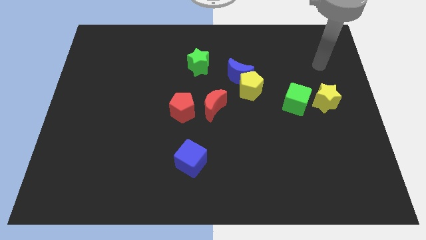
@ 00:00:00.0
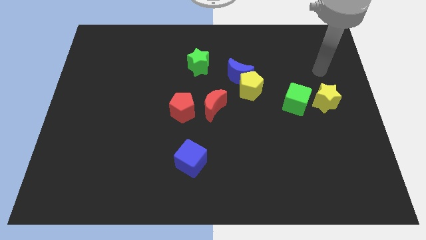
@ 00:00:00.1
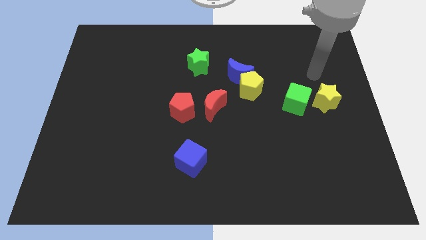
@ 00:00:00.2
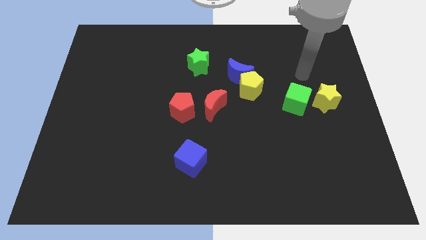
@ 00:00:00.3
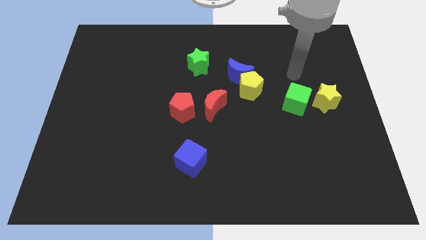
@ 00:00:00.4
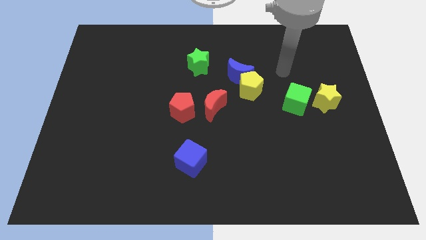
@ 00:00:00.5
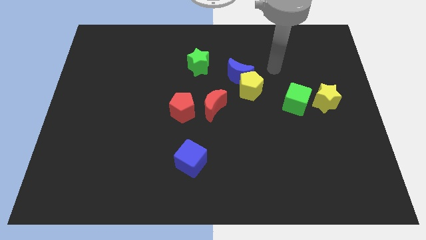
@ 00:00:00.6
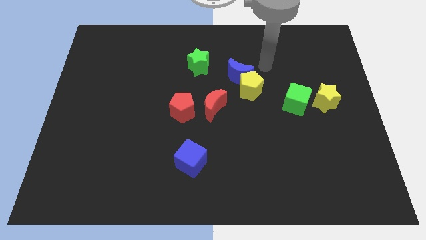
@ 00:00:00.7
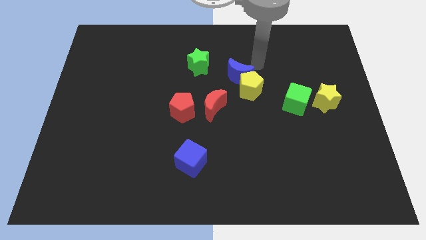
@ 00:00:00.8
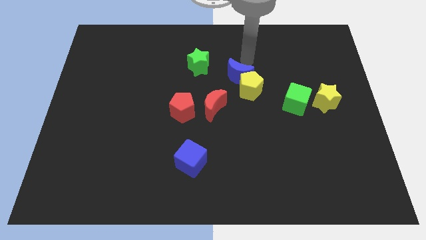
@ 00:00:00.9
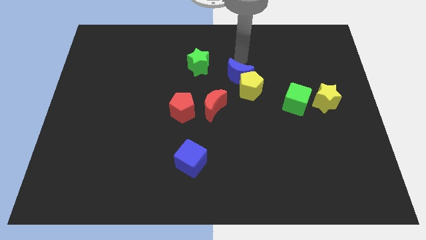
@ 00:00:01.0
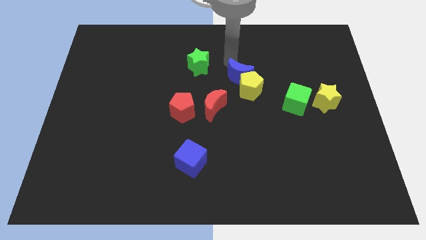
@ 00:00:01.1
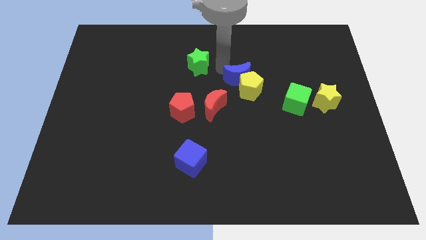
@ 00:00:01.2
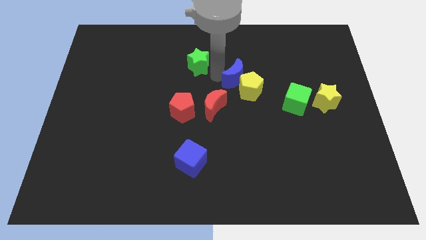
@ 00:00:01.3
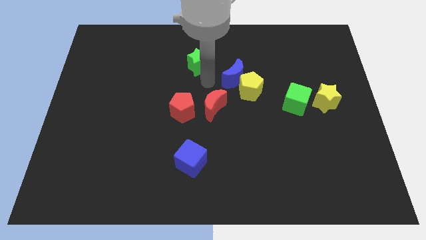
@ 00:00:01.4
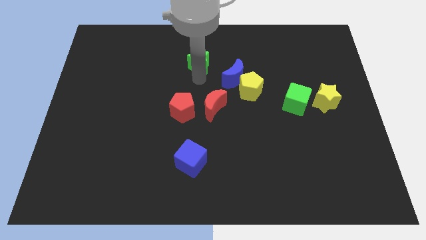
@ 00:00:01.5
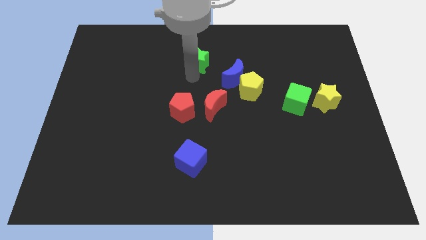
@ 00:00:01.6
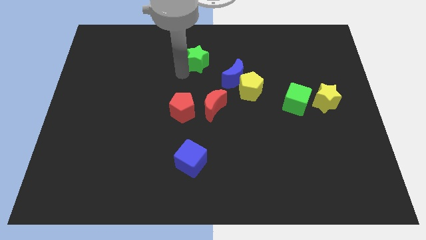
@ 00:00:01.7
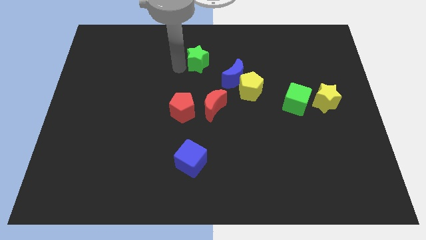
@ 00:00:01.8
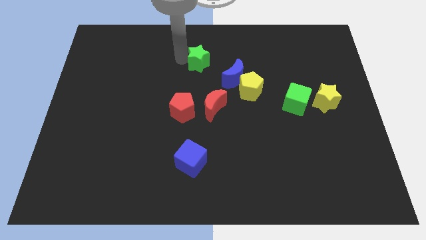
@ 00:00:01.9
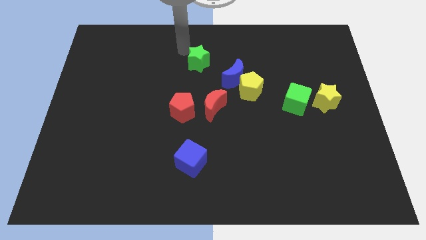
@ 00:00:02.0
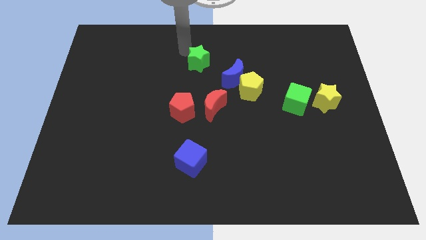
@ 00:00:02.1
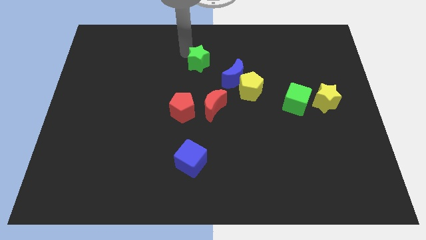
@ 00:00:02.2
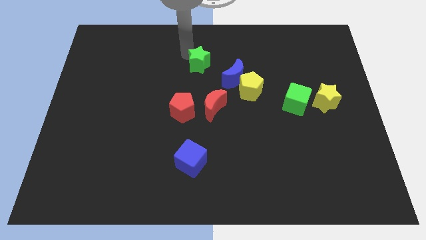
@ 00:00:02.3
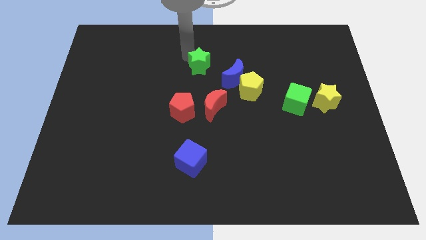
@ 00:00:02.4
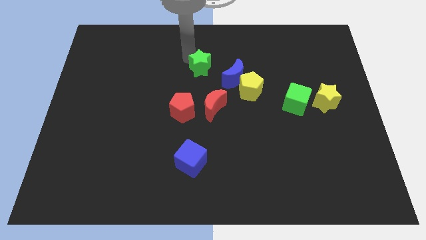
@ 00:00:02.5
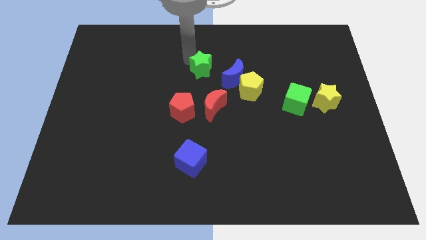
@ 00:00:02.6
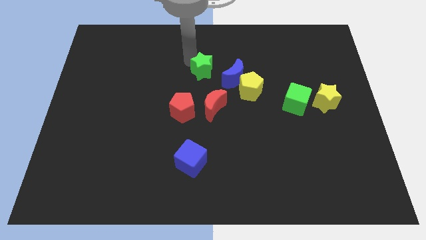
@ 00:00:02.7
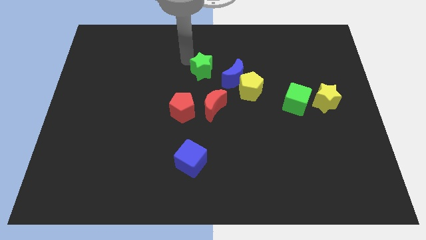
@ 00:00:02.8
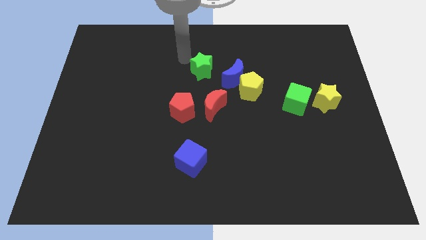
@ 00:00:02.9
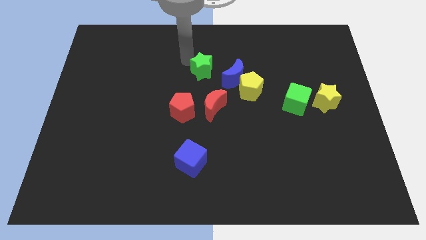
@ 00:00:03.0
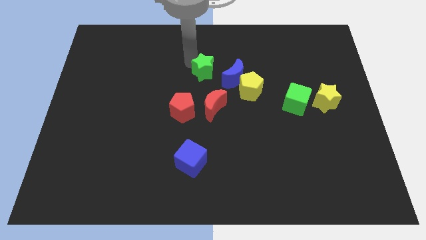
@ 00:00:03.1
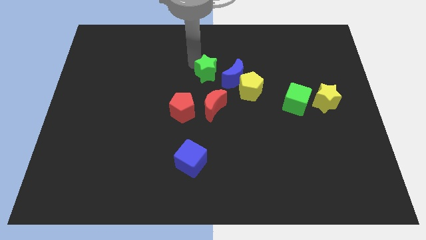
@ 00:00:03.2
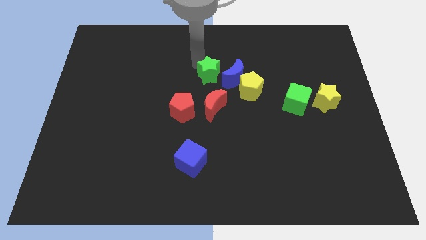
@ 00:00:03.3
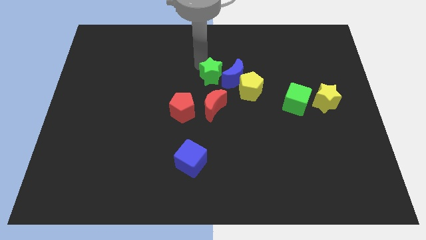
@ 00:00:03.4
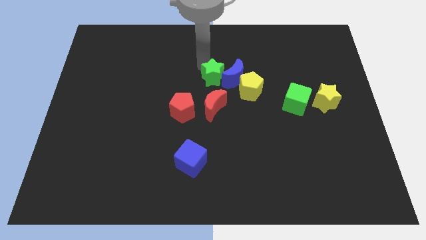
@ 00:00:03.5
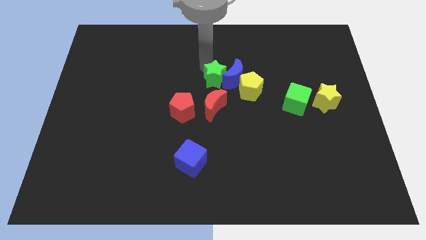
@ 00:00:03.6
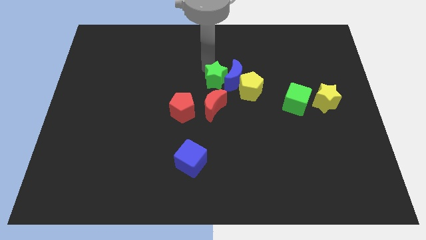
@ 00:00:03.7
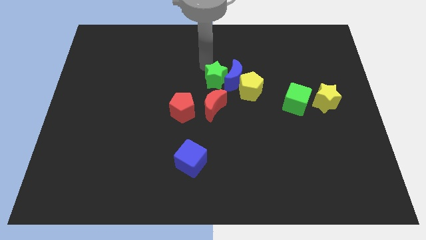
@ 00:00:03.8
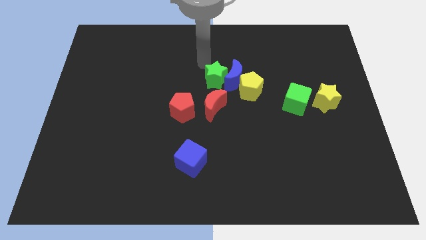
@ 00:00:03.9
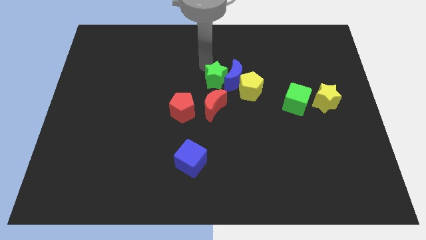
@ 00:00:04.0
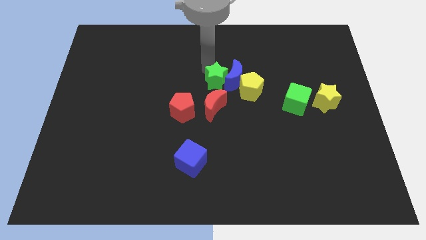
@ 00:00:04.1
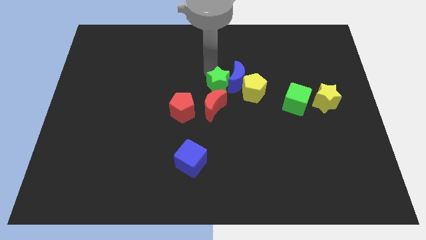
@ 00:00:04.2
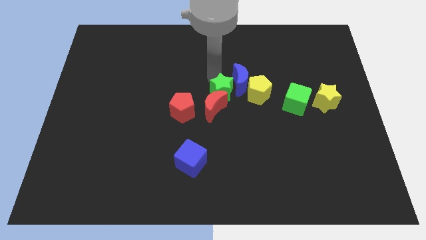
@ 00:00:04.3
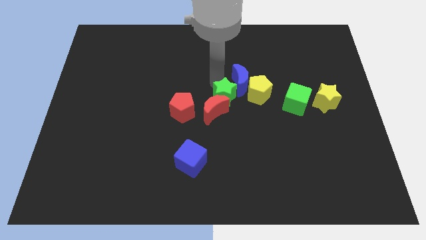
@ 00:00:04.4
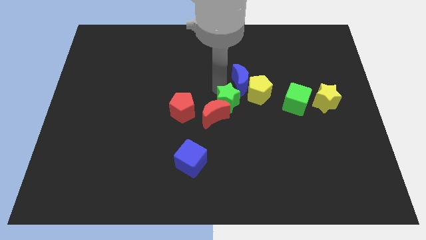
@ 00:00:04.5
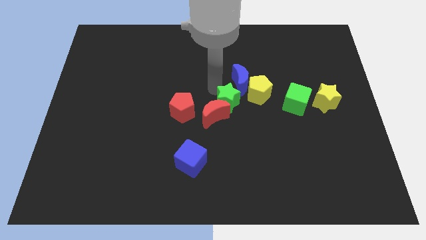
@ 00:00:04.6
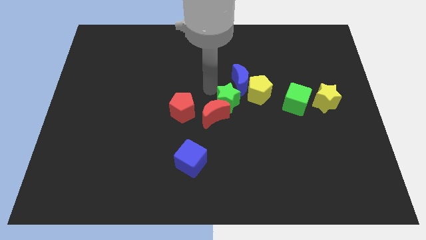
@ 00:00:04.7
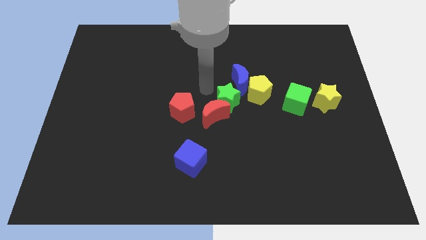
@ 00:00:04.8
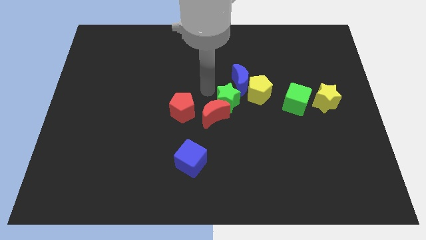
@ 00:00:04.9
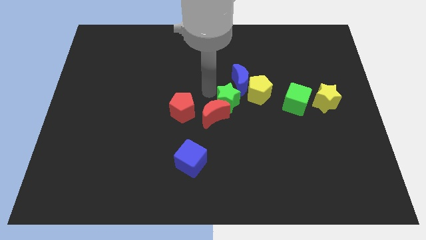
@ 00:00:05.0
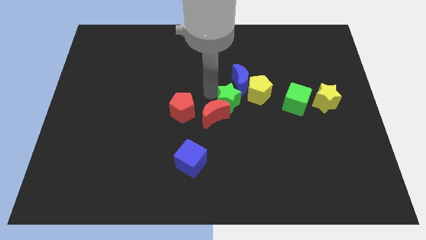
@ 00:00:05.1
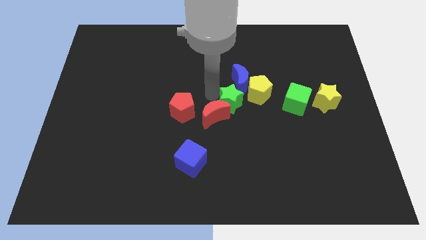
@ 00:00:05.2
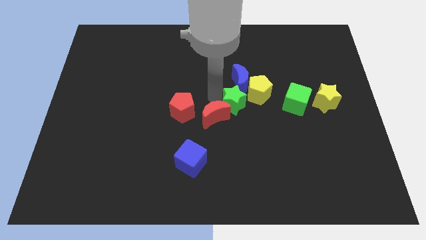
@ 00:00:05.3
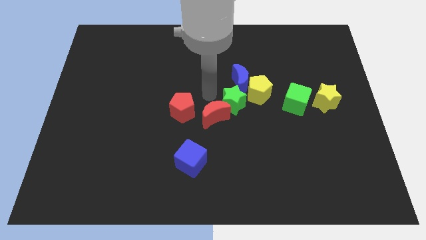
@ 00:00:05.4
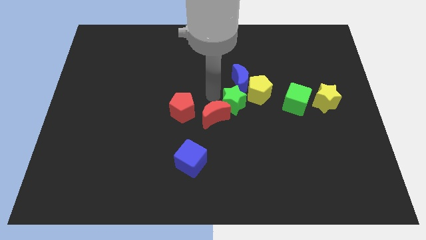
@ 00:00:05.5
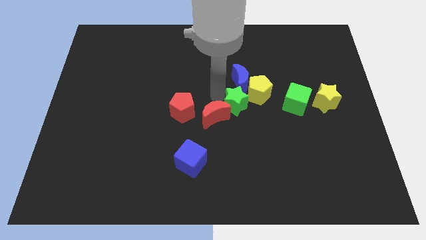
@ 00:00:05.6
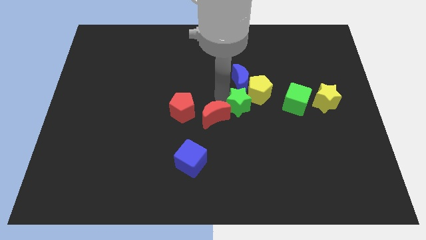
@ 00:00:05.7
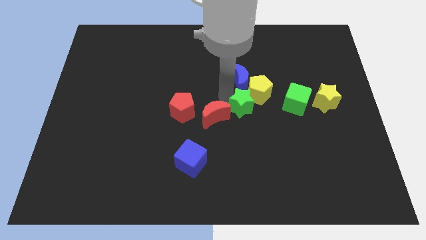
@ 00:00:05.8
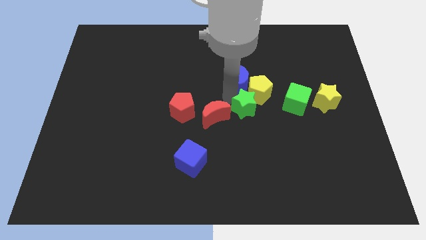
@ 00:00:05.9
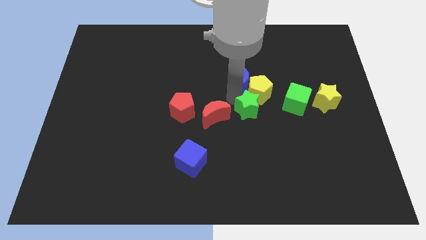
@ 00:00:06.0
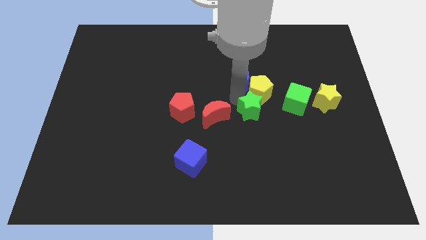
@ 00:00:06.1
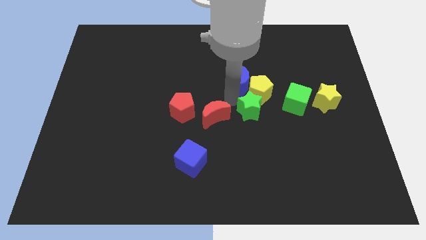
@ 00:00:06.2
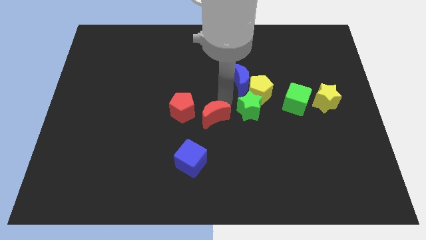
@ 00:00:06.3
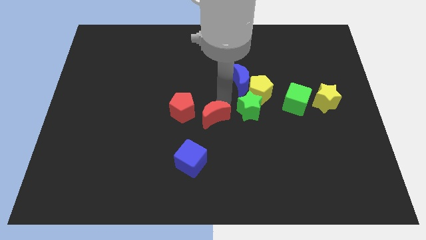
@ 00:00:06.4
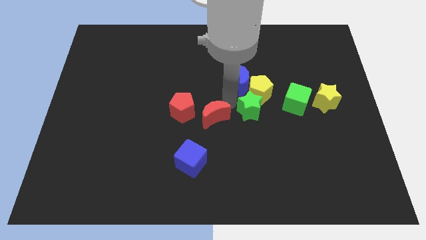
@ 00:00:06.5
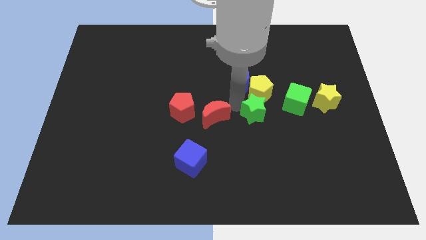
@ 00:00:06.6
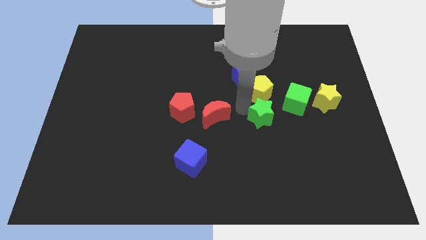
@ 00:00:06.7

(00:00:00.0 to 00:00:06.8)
push the green star diagonally down and to the left of the green cube

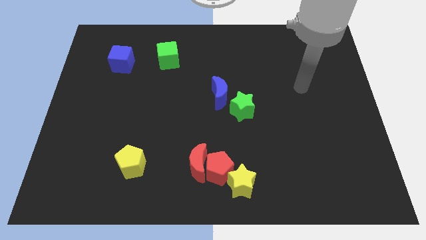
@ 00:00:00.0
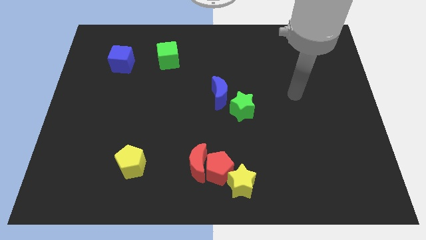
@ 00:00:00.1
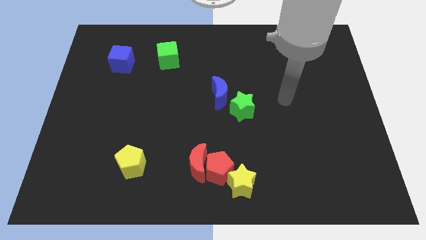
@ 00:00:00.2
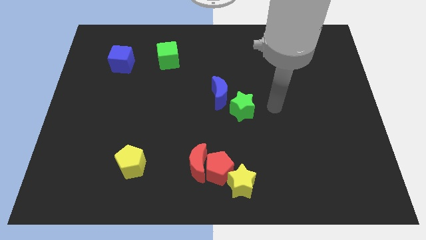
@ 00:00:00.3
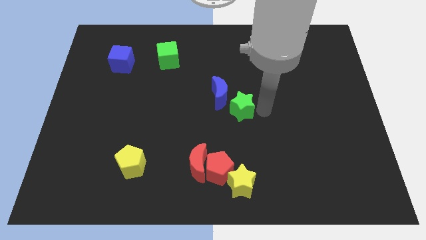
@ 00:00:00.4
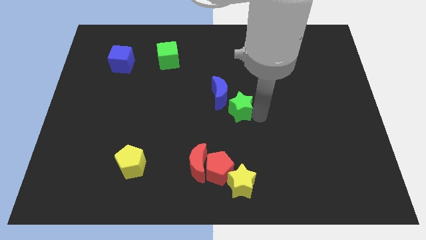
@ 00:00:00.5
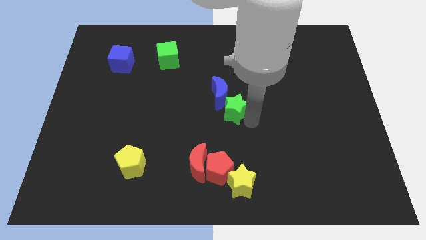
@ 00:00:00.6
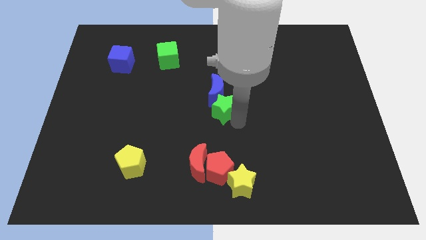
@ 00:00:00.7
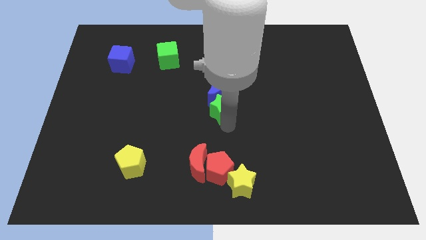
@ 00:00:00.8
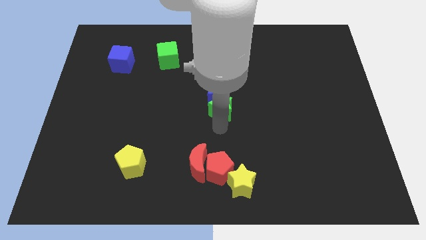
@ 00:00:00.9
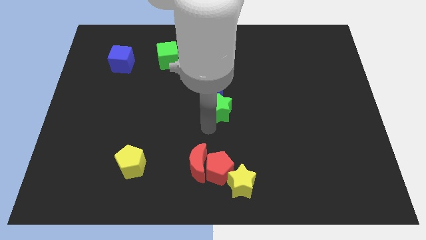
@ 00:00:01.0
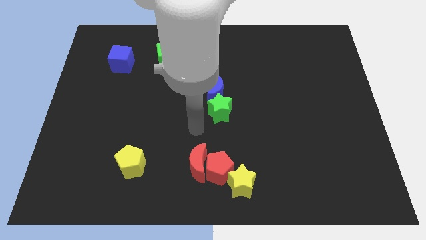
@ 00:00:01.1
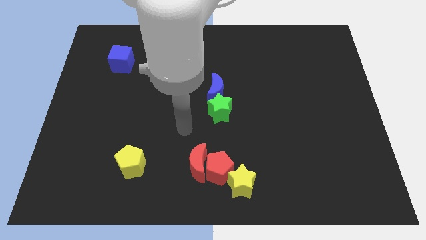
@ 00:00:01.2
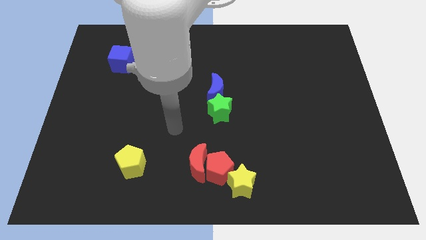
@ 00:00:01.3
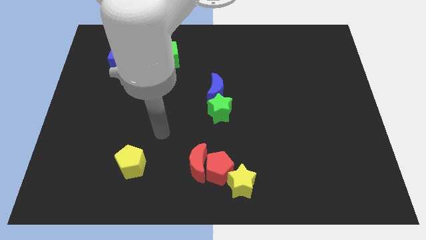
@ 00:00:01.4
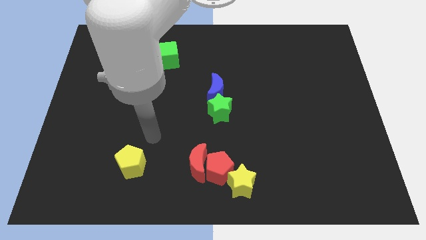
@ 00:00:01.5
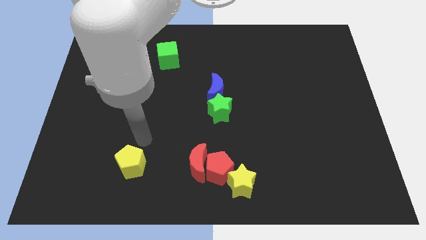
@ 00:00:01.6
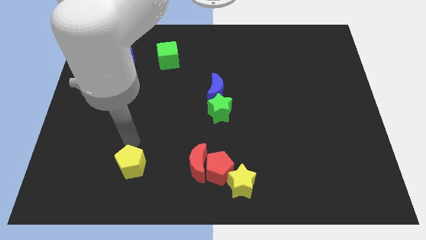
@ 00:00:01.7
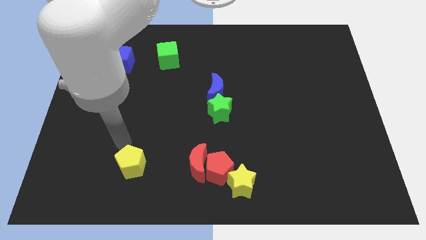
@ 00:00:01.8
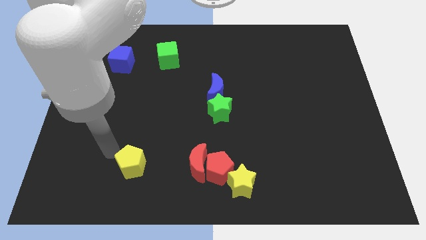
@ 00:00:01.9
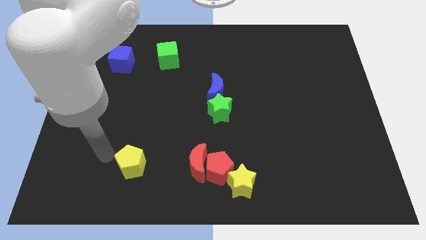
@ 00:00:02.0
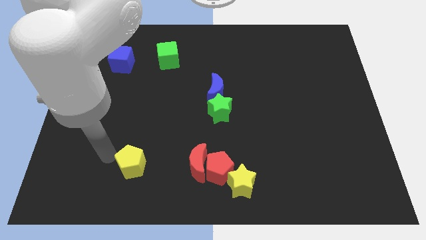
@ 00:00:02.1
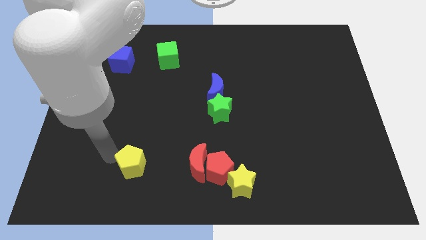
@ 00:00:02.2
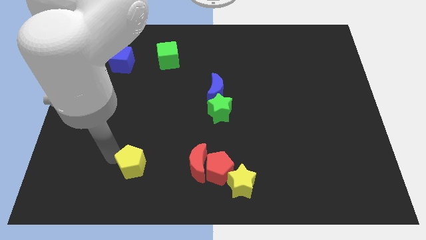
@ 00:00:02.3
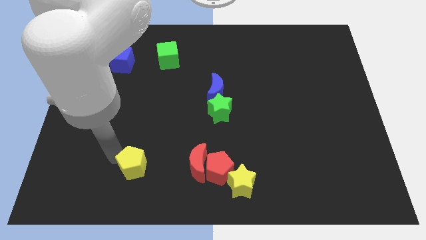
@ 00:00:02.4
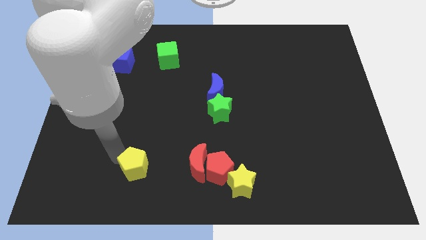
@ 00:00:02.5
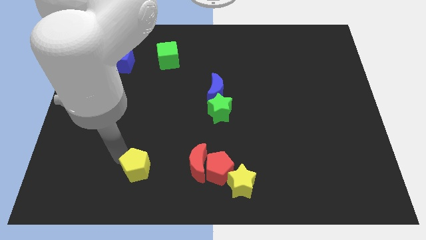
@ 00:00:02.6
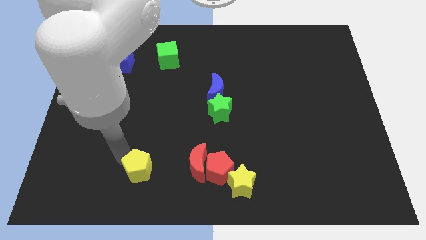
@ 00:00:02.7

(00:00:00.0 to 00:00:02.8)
slide the yellow pentagon to the left of the red pentagon
